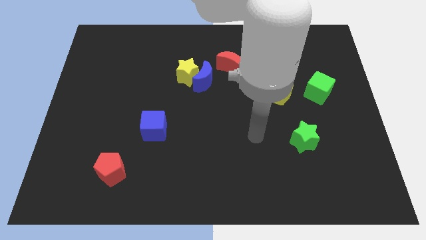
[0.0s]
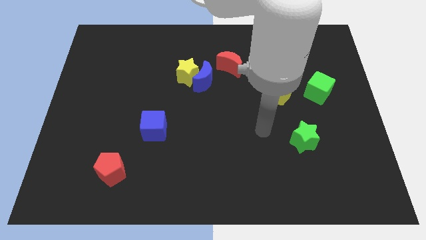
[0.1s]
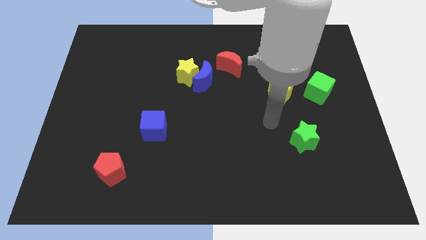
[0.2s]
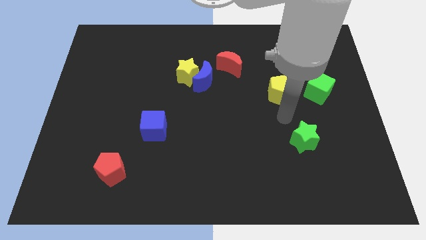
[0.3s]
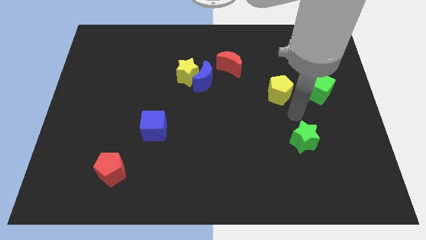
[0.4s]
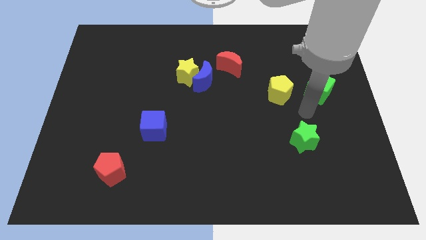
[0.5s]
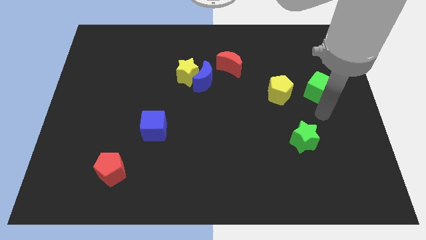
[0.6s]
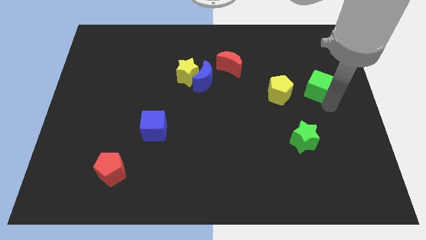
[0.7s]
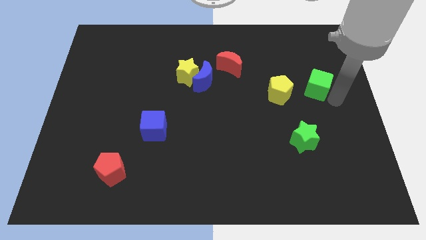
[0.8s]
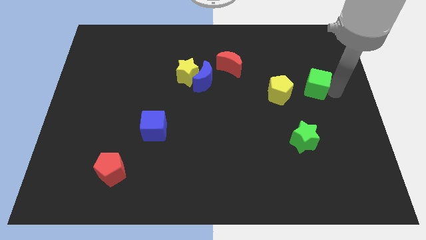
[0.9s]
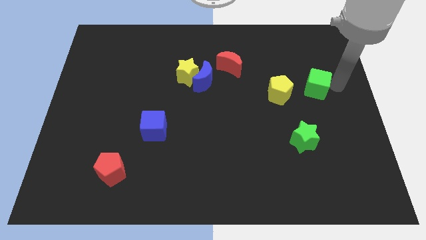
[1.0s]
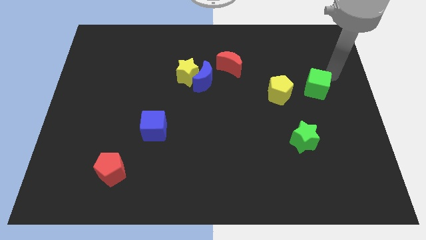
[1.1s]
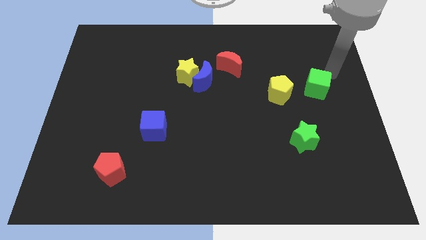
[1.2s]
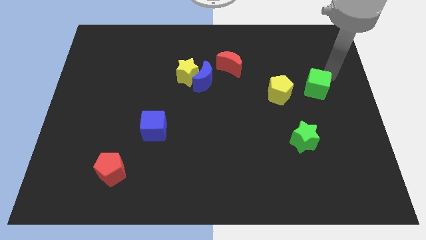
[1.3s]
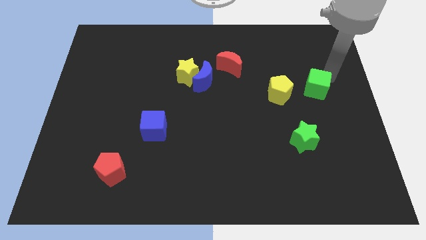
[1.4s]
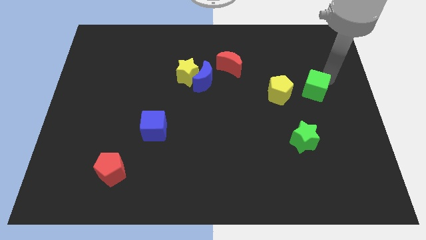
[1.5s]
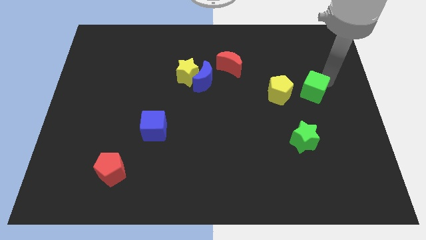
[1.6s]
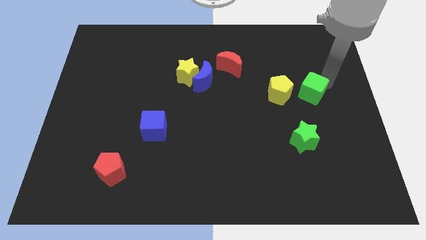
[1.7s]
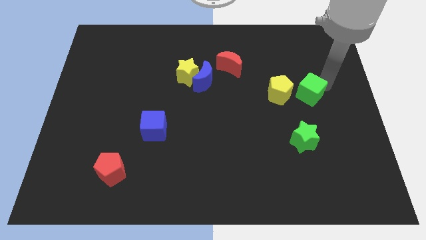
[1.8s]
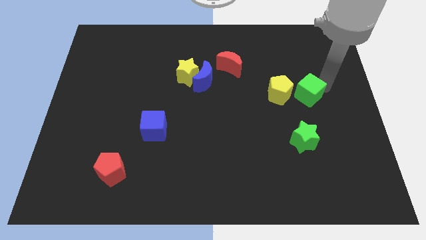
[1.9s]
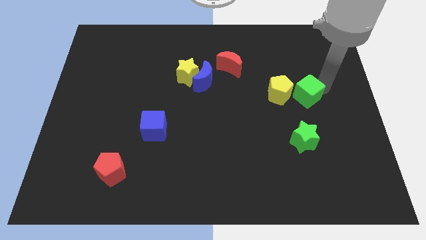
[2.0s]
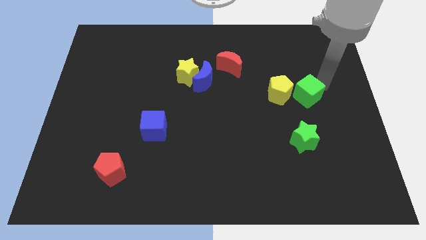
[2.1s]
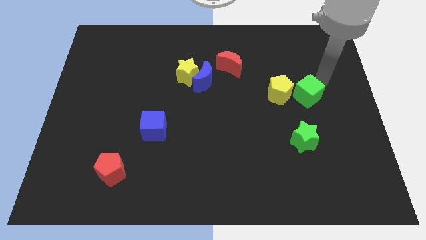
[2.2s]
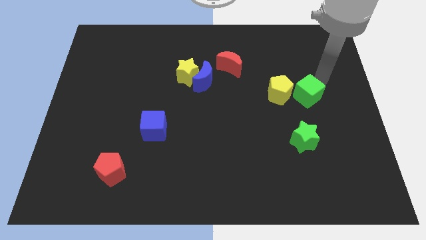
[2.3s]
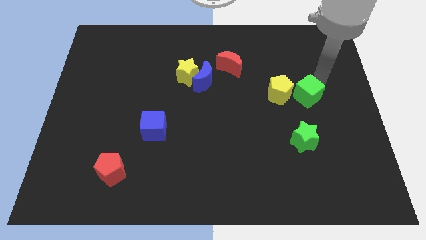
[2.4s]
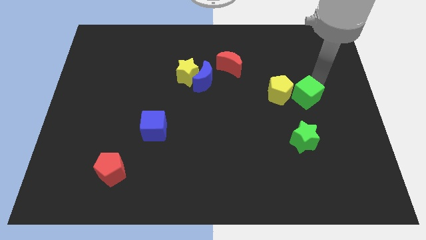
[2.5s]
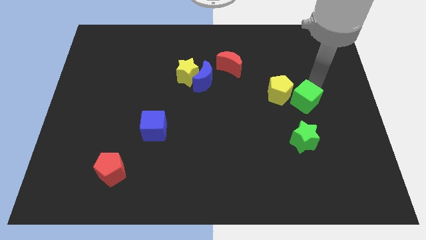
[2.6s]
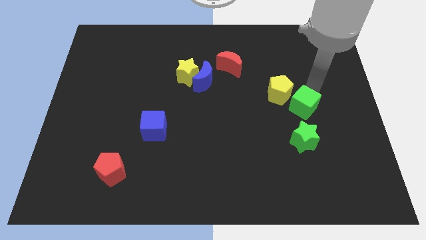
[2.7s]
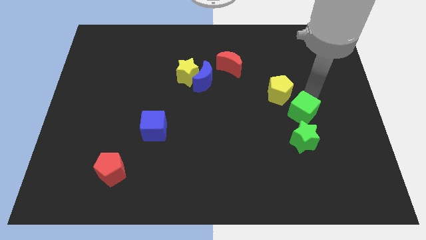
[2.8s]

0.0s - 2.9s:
move the green cube slightly downwards and then to the left

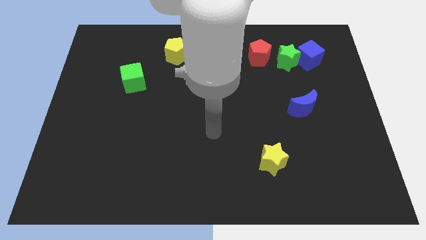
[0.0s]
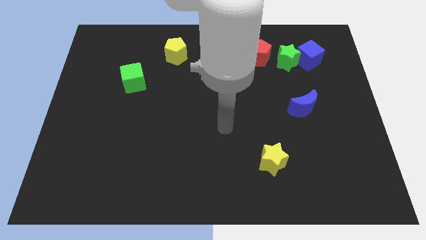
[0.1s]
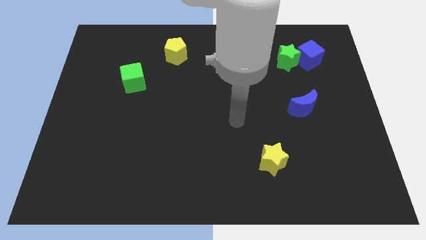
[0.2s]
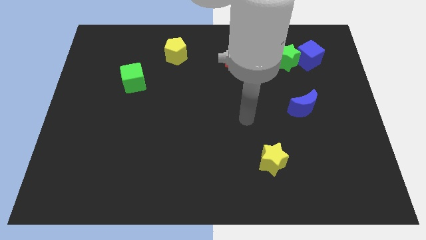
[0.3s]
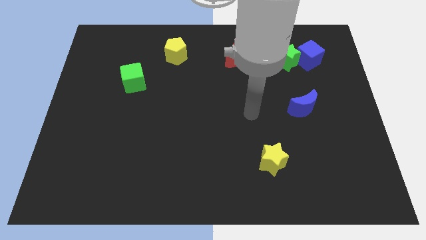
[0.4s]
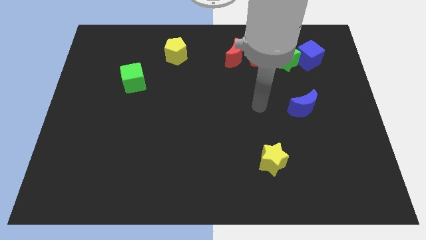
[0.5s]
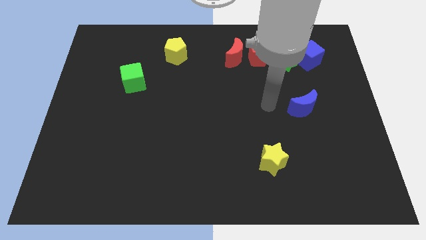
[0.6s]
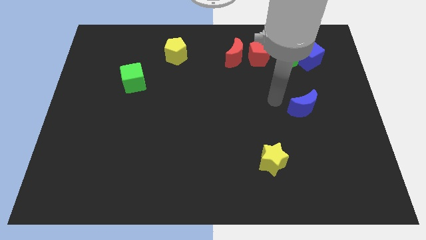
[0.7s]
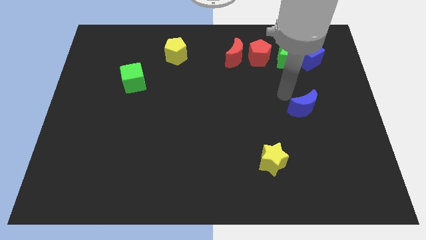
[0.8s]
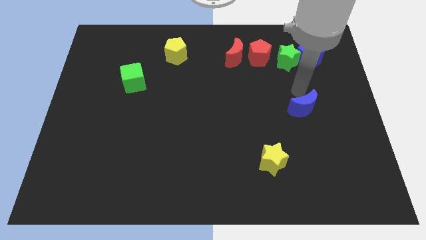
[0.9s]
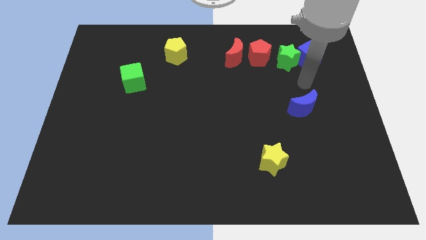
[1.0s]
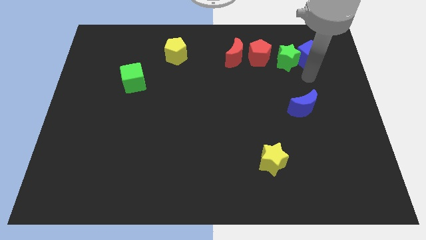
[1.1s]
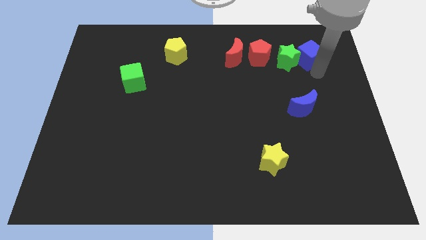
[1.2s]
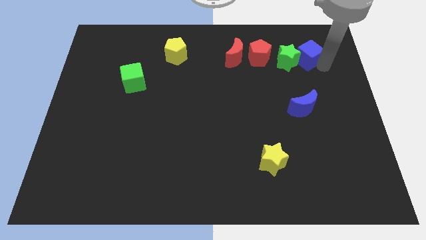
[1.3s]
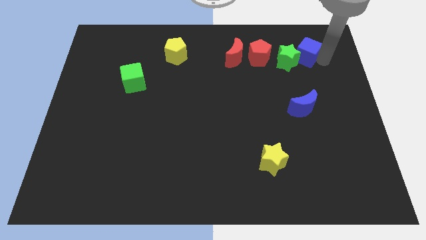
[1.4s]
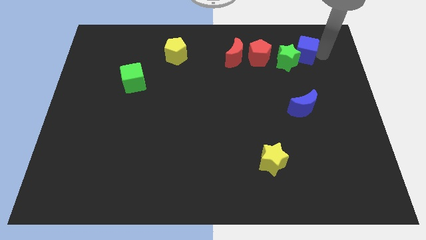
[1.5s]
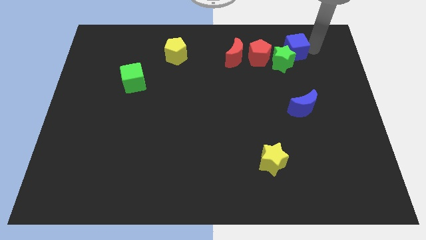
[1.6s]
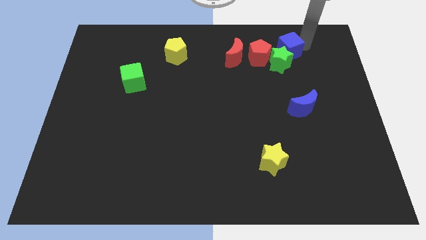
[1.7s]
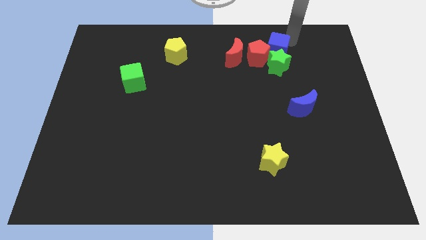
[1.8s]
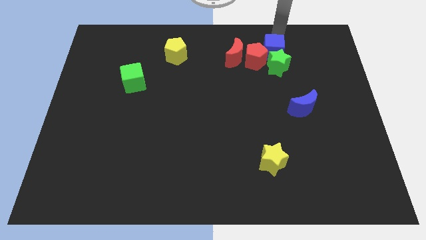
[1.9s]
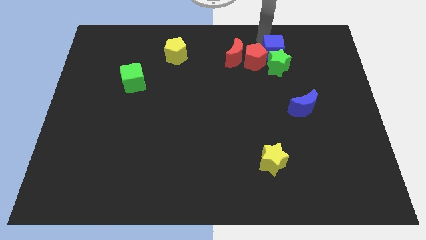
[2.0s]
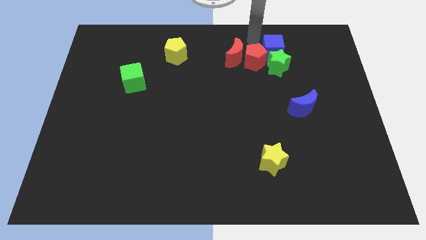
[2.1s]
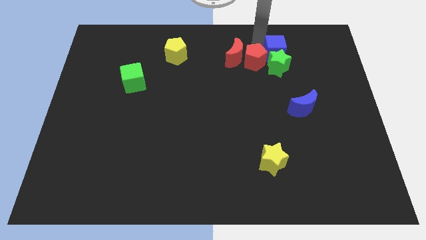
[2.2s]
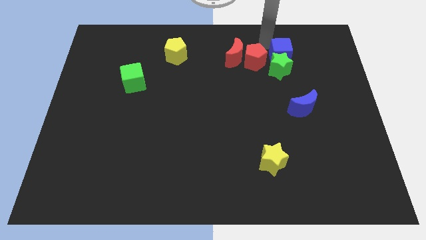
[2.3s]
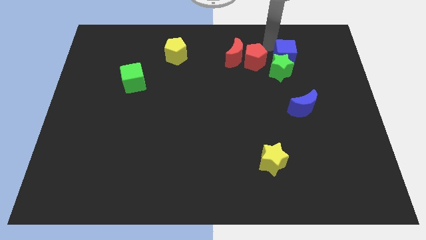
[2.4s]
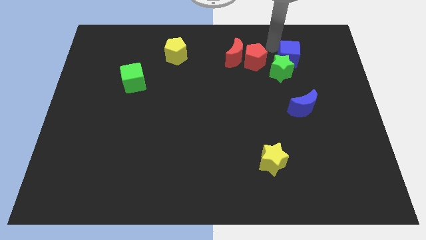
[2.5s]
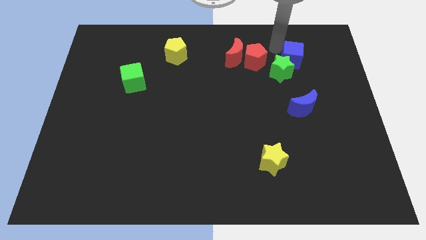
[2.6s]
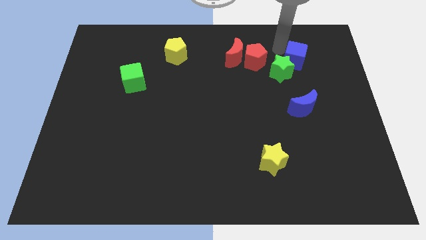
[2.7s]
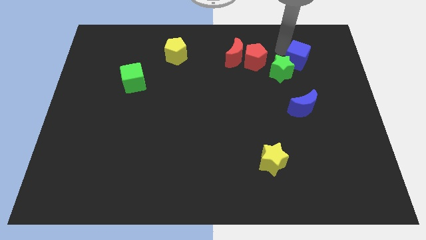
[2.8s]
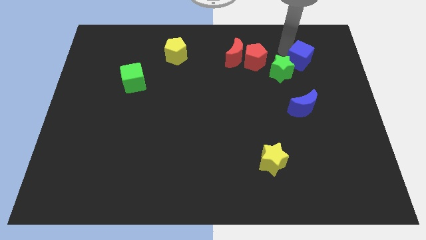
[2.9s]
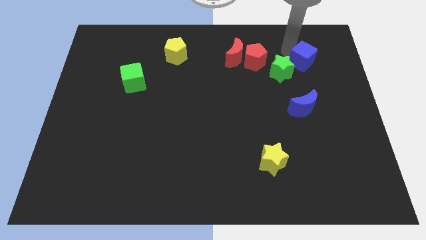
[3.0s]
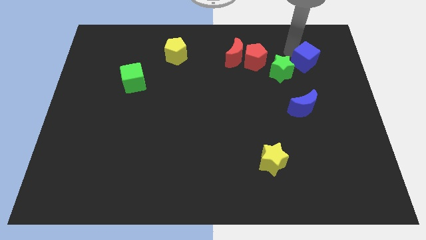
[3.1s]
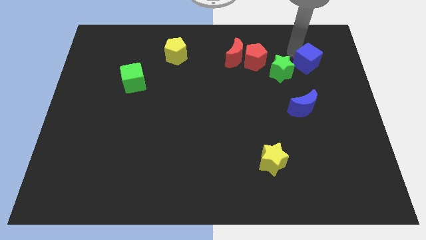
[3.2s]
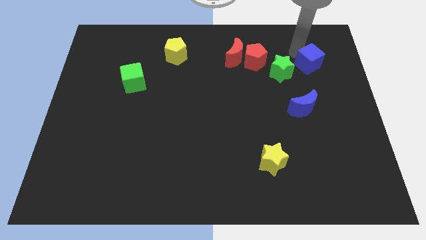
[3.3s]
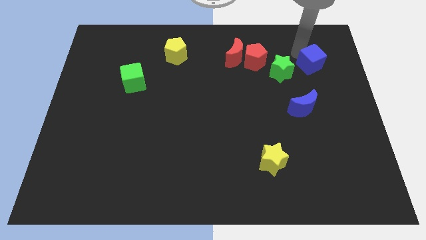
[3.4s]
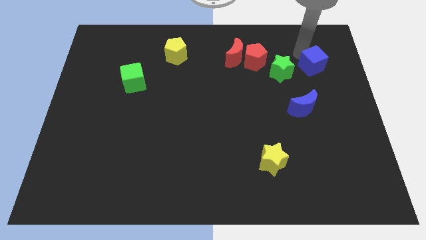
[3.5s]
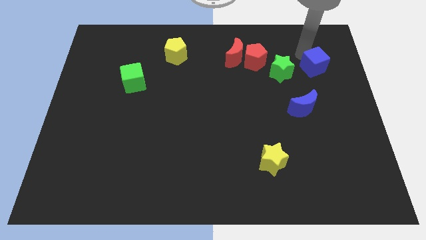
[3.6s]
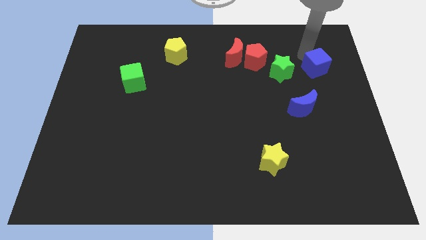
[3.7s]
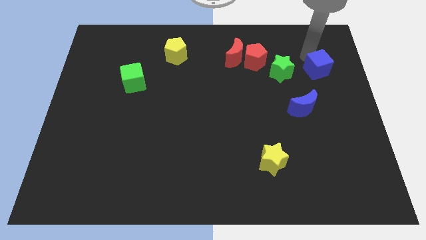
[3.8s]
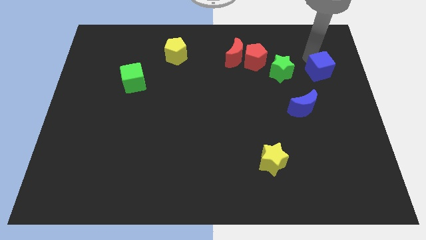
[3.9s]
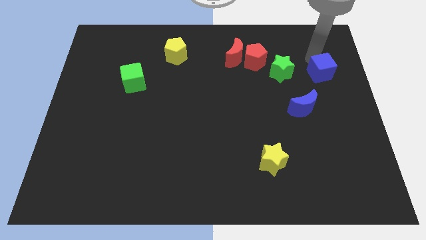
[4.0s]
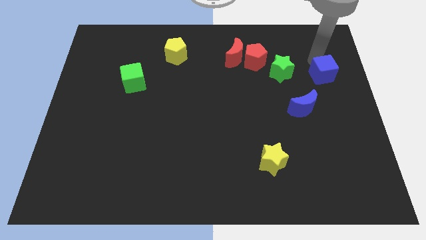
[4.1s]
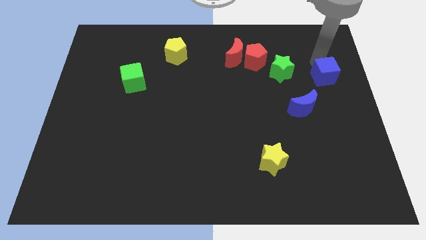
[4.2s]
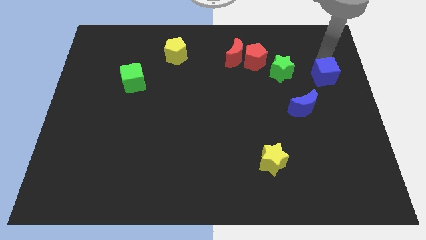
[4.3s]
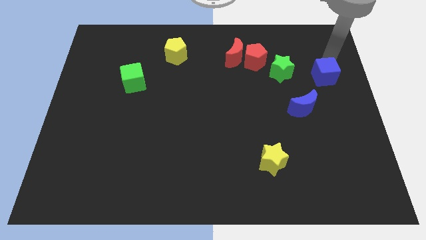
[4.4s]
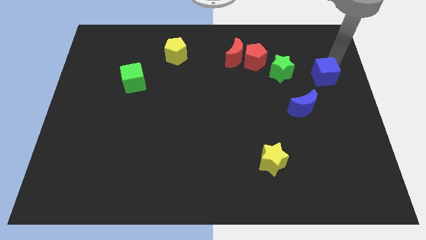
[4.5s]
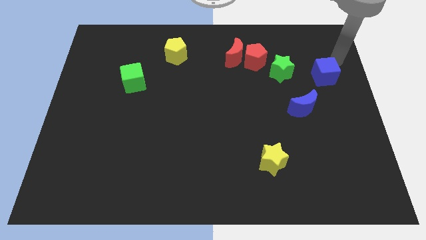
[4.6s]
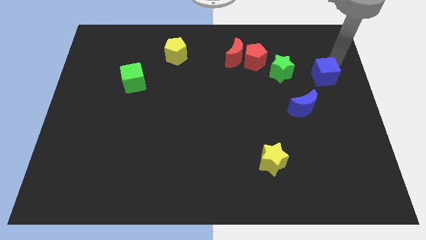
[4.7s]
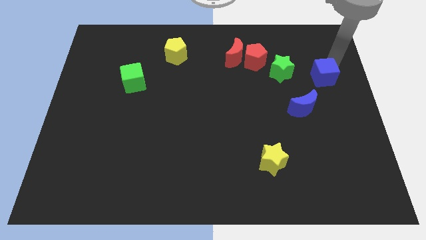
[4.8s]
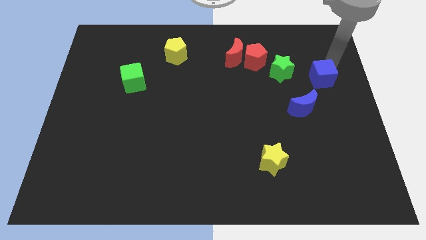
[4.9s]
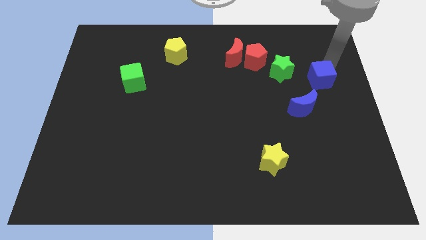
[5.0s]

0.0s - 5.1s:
push the blue cube down a bit

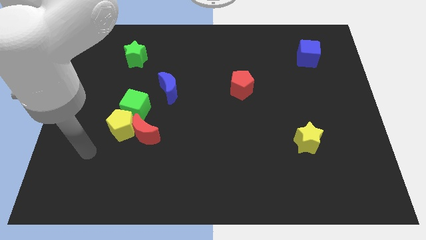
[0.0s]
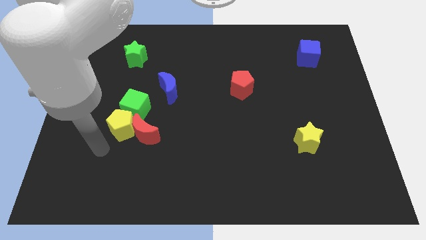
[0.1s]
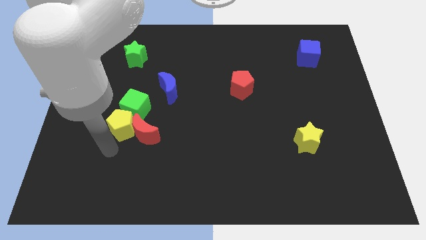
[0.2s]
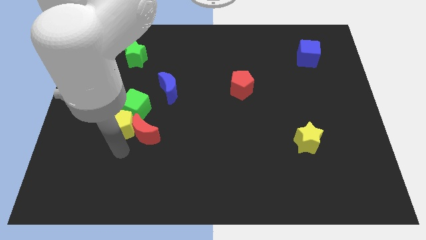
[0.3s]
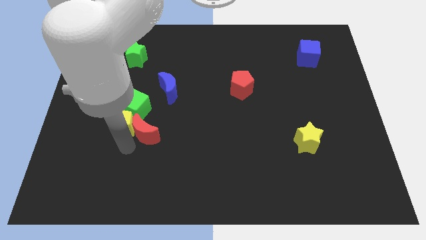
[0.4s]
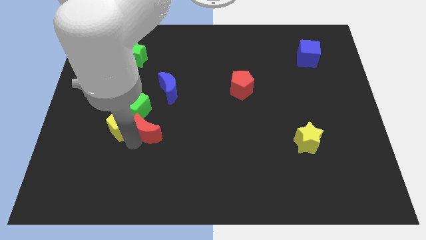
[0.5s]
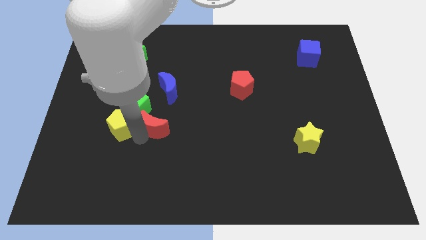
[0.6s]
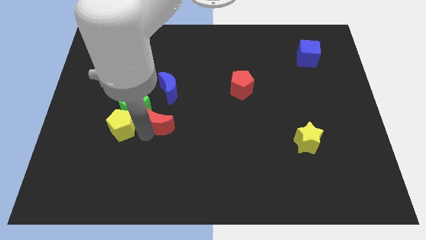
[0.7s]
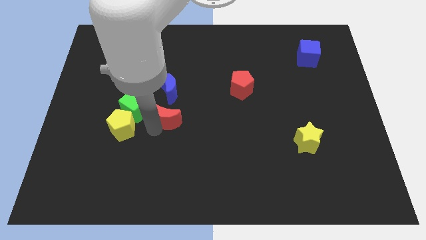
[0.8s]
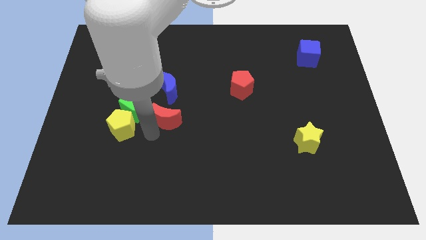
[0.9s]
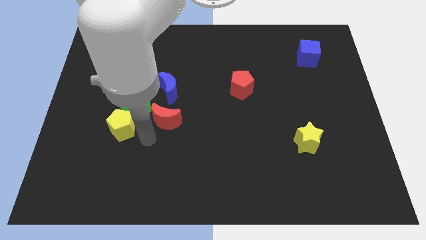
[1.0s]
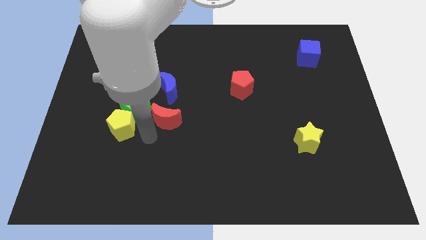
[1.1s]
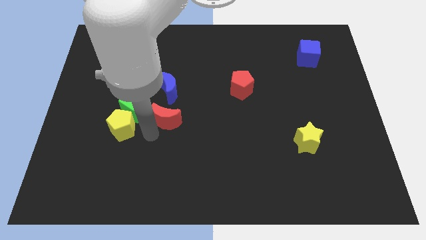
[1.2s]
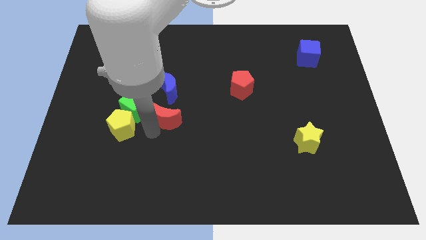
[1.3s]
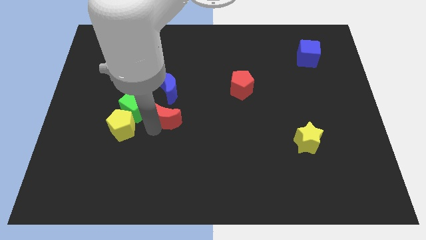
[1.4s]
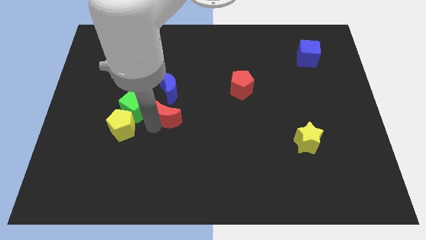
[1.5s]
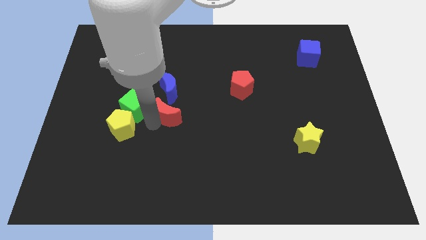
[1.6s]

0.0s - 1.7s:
push the red moon up and then right a little bit
